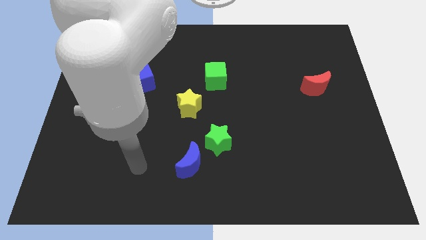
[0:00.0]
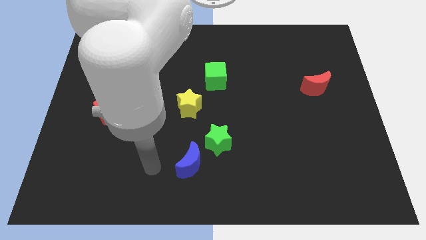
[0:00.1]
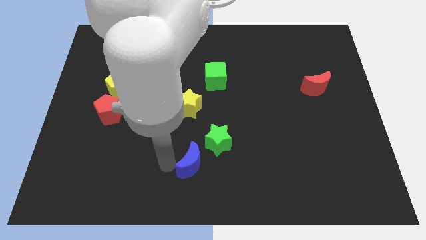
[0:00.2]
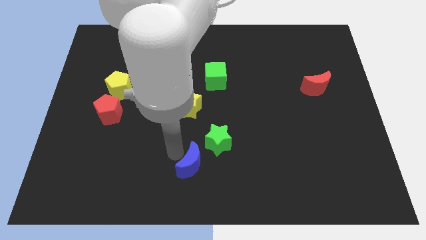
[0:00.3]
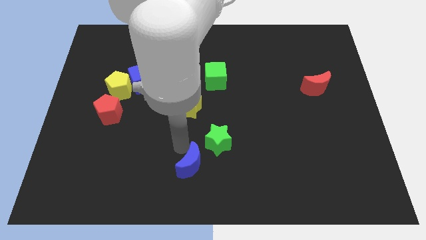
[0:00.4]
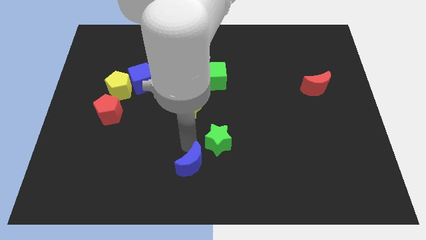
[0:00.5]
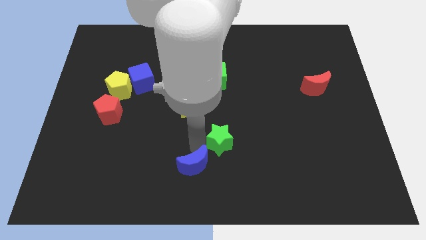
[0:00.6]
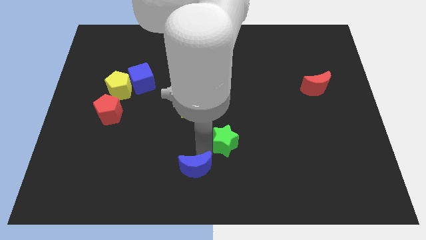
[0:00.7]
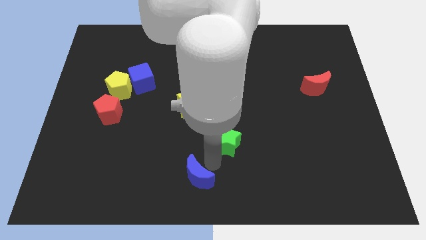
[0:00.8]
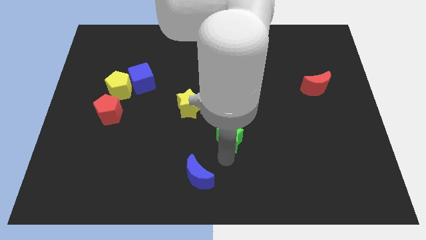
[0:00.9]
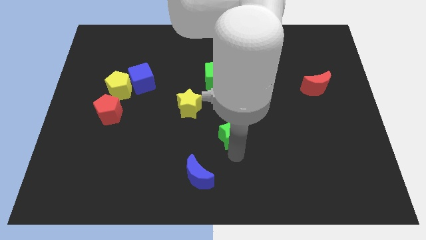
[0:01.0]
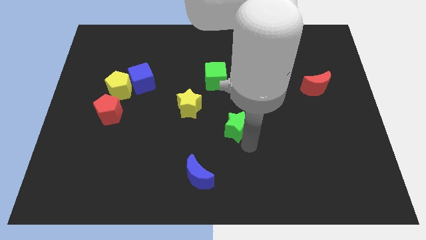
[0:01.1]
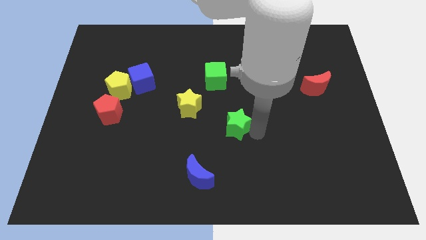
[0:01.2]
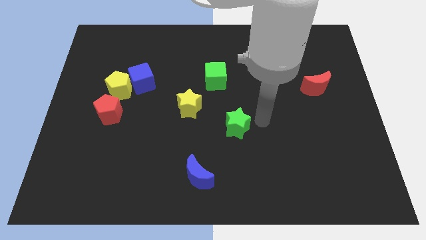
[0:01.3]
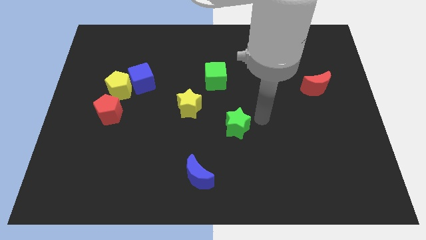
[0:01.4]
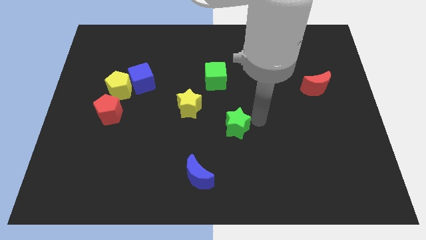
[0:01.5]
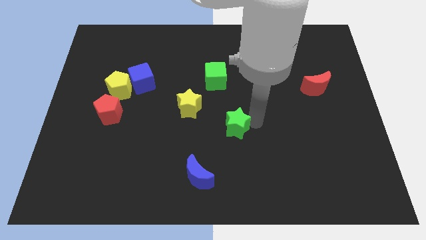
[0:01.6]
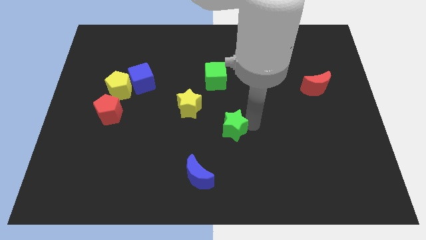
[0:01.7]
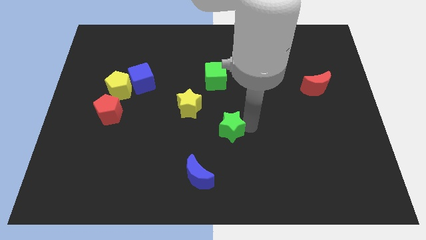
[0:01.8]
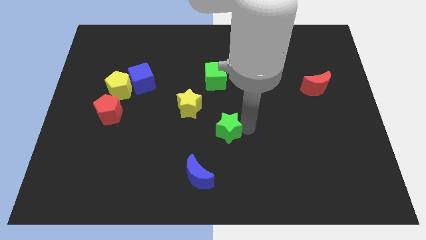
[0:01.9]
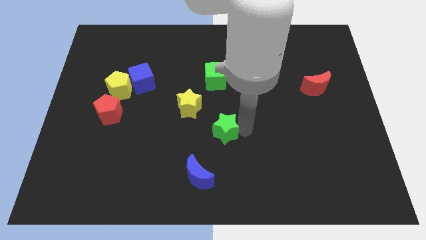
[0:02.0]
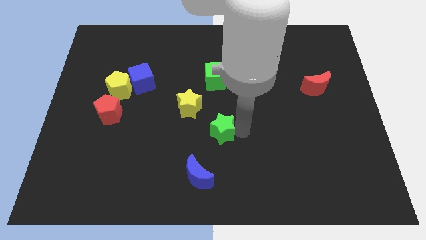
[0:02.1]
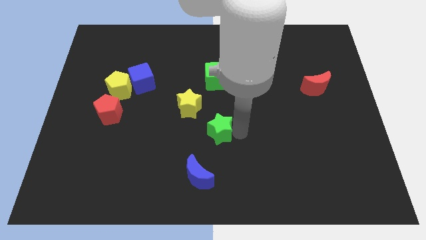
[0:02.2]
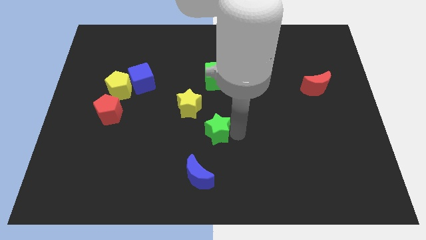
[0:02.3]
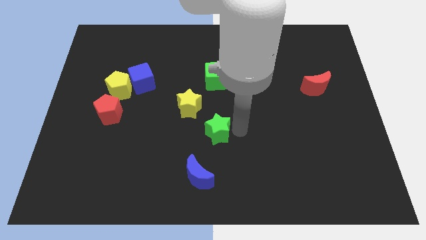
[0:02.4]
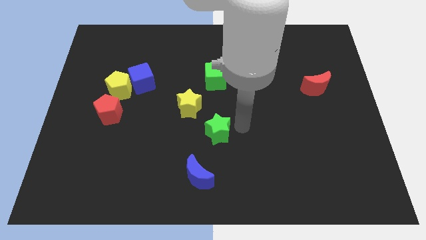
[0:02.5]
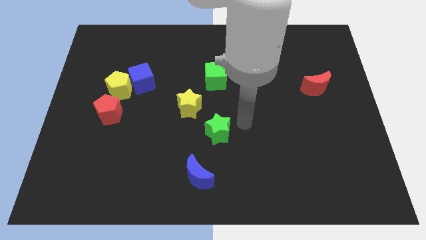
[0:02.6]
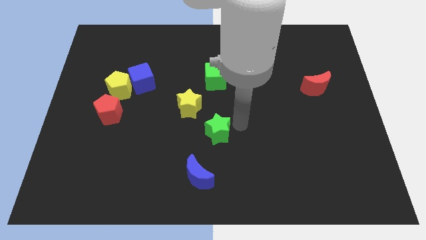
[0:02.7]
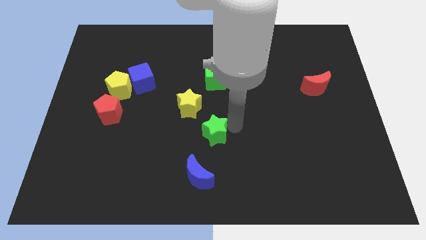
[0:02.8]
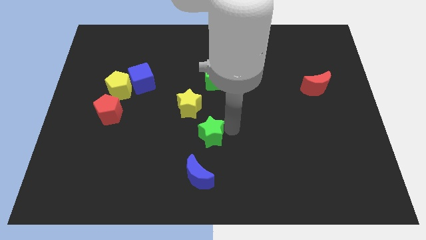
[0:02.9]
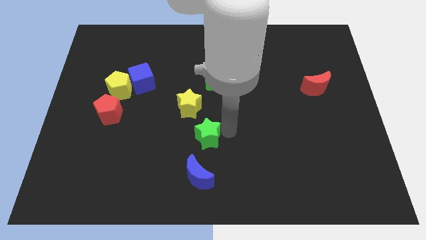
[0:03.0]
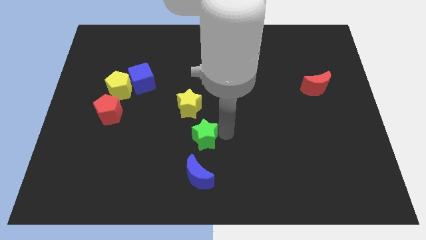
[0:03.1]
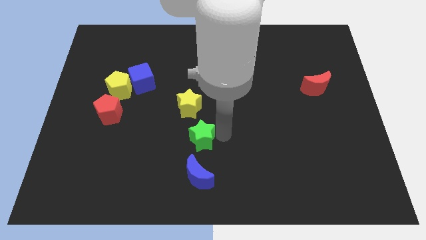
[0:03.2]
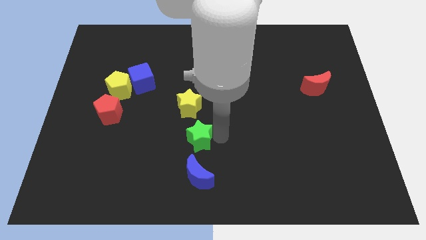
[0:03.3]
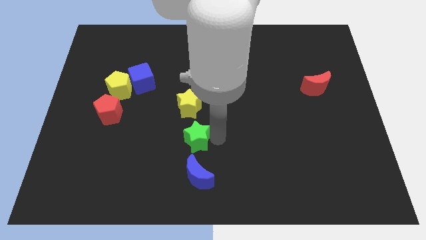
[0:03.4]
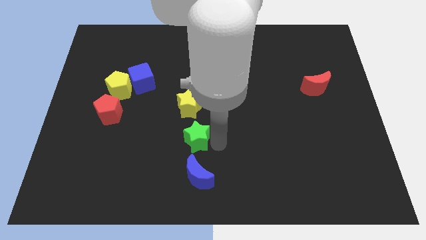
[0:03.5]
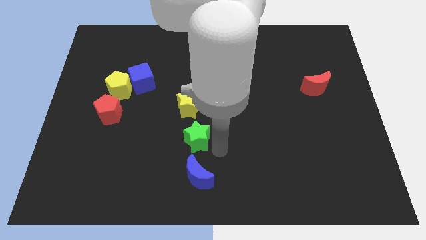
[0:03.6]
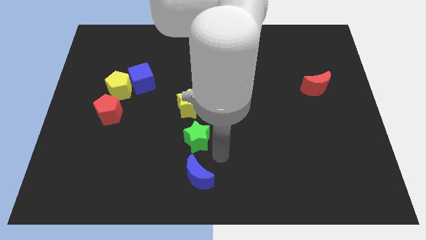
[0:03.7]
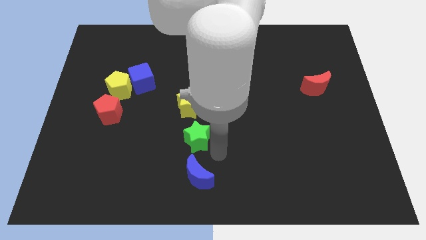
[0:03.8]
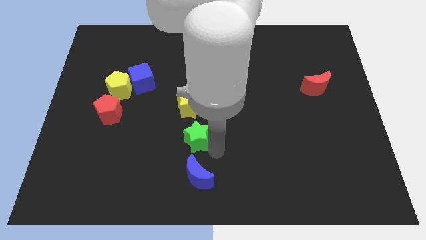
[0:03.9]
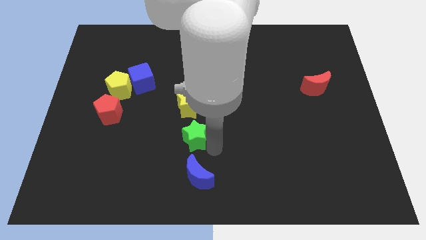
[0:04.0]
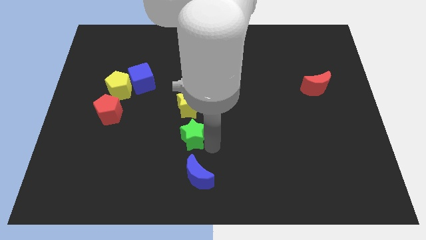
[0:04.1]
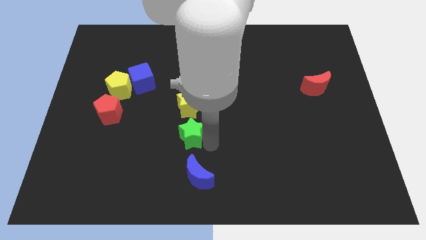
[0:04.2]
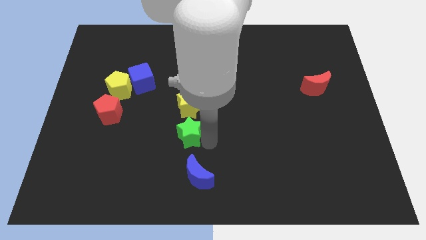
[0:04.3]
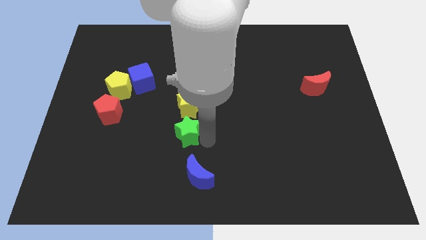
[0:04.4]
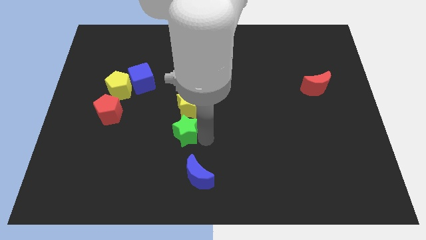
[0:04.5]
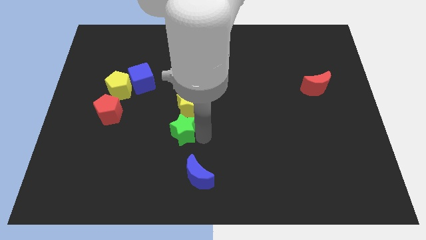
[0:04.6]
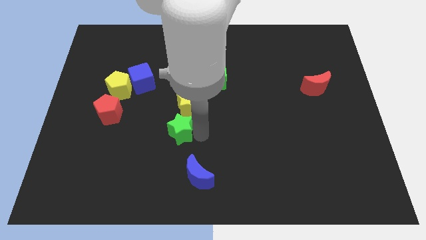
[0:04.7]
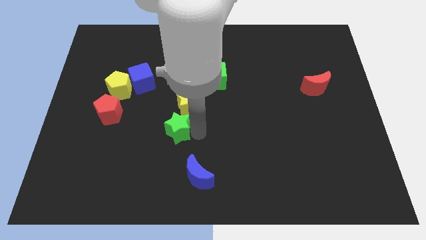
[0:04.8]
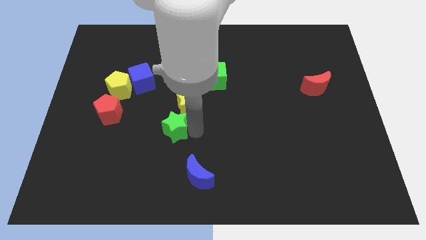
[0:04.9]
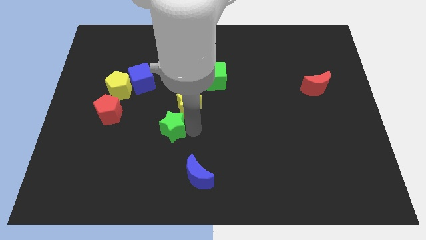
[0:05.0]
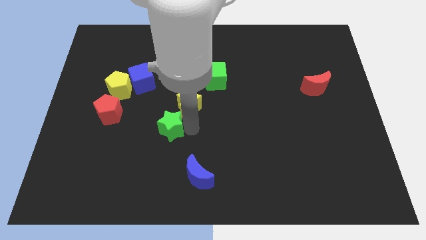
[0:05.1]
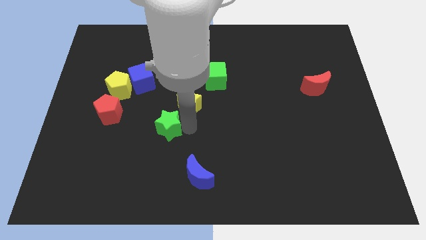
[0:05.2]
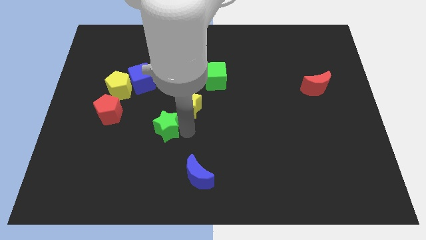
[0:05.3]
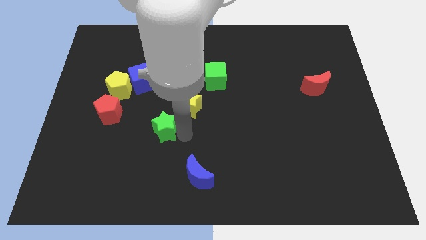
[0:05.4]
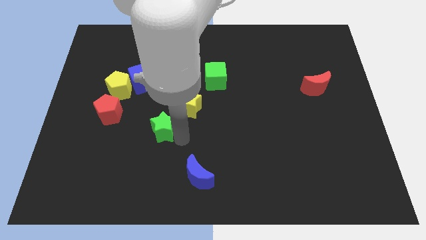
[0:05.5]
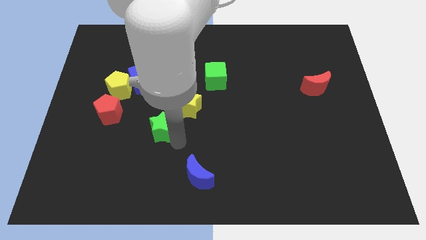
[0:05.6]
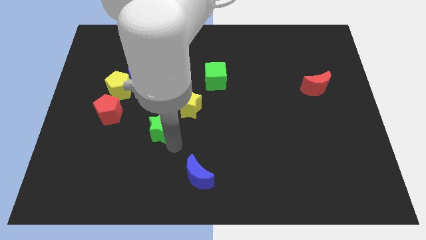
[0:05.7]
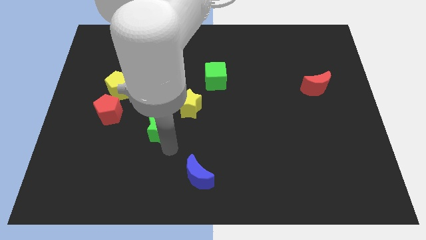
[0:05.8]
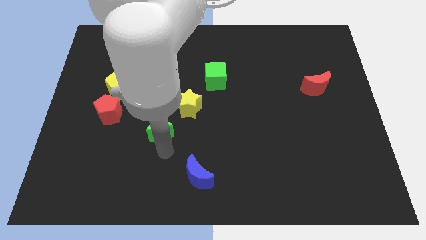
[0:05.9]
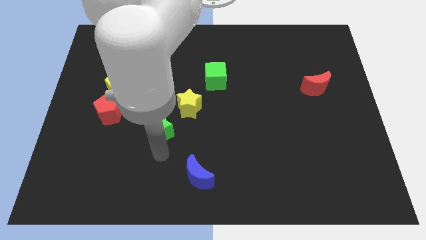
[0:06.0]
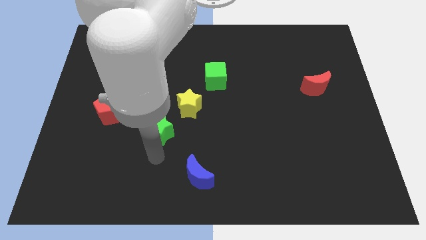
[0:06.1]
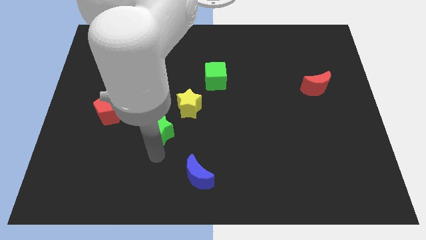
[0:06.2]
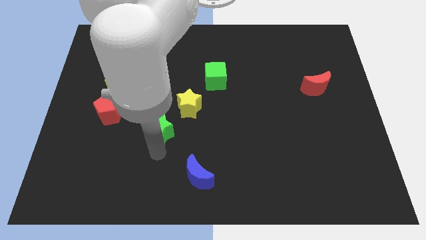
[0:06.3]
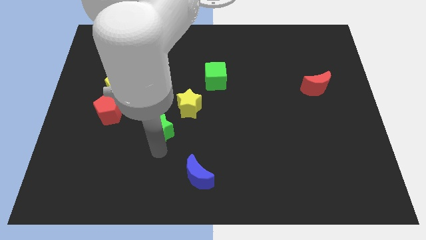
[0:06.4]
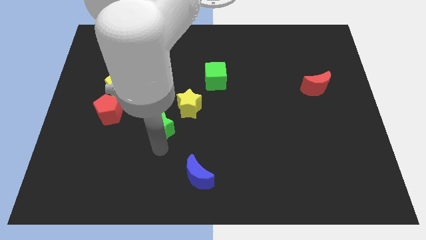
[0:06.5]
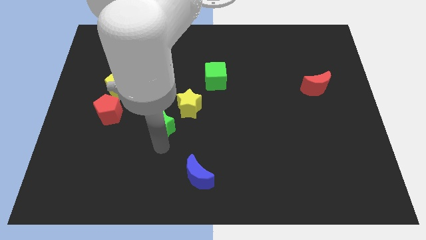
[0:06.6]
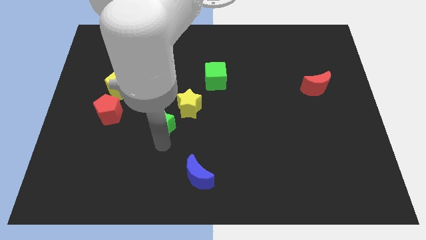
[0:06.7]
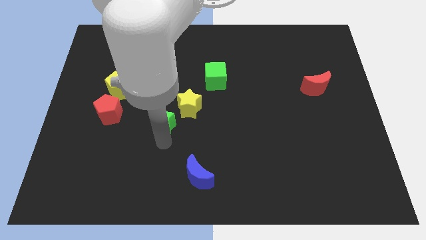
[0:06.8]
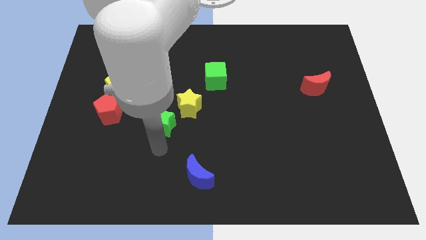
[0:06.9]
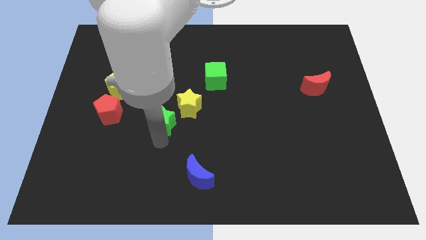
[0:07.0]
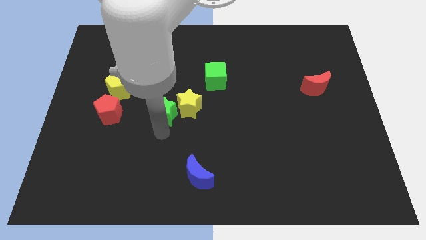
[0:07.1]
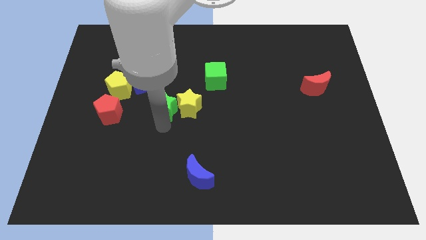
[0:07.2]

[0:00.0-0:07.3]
put the green star to the top left of the yellow star
